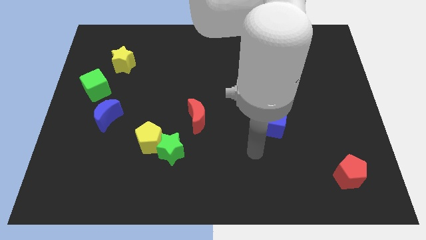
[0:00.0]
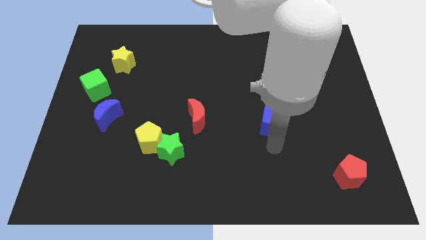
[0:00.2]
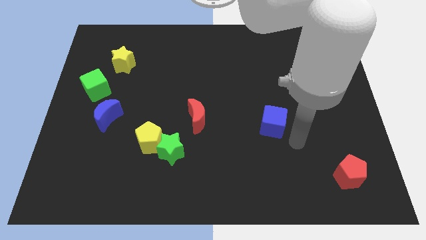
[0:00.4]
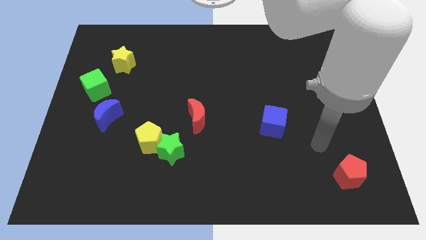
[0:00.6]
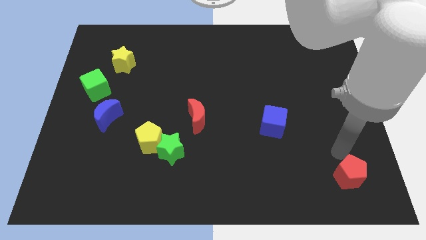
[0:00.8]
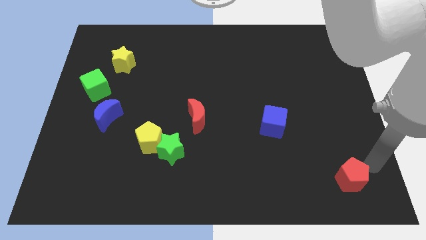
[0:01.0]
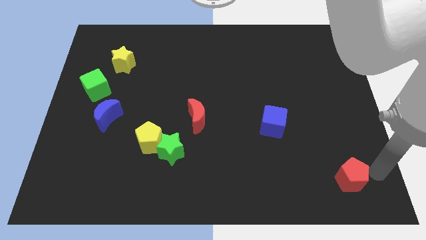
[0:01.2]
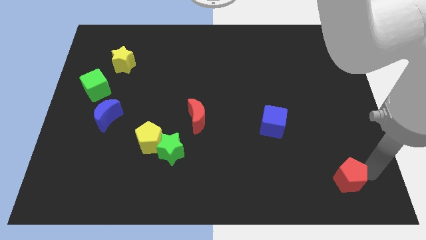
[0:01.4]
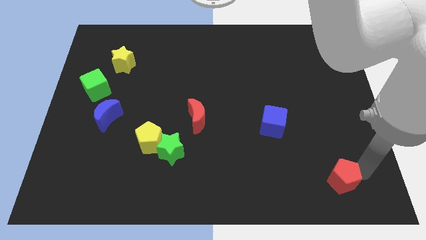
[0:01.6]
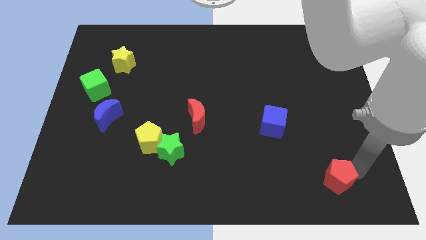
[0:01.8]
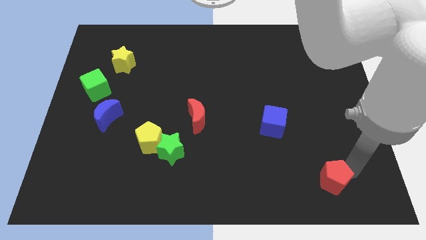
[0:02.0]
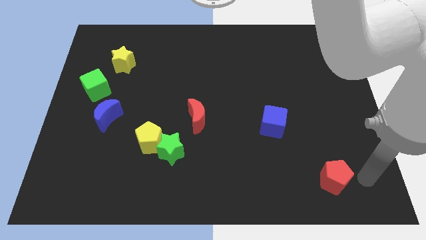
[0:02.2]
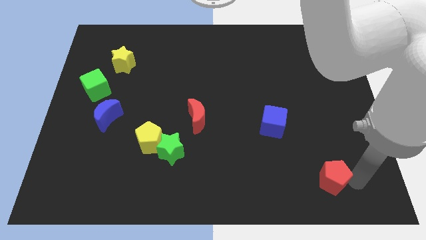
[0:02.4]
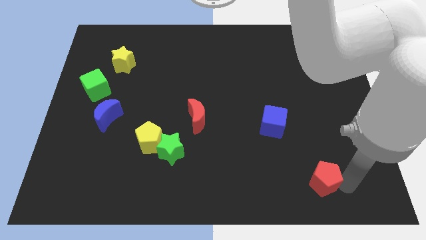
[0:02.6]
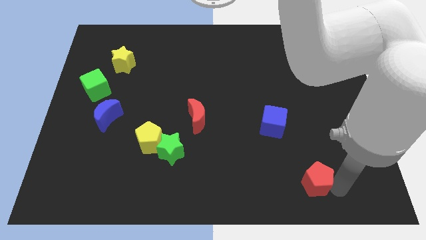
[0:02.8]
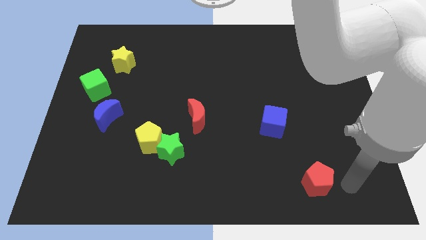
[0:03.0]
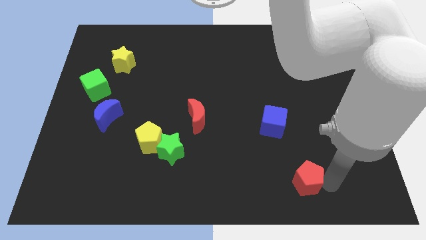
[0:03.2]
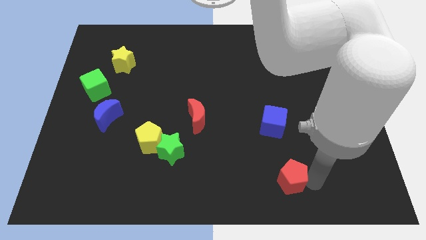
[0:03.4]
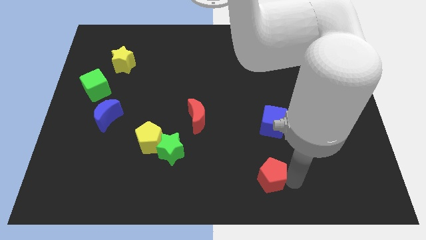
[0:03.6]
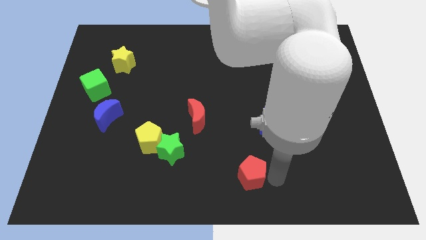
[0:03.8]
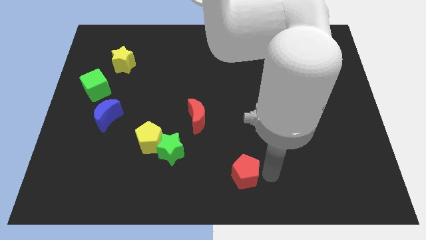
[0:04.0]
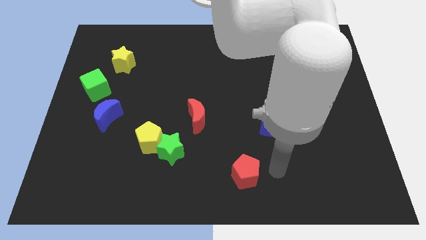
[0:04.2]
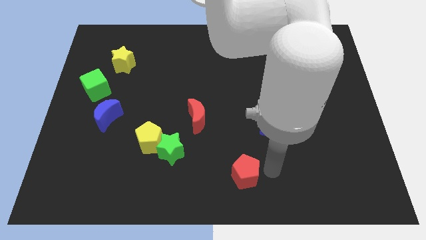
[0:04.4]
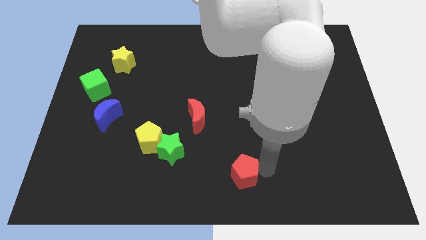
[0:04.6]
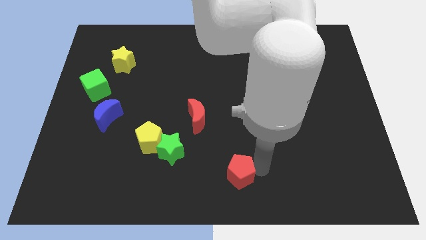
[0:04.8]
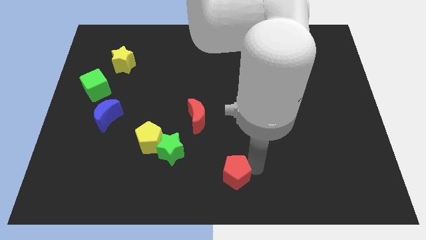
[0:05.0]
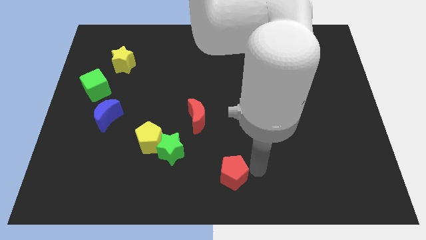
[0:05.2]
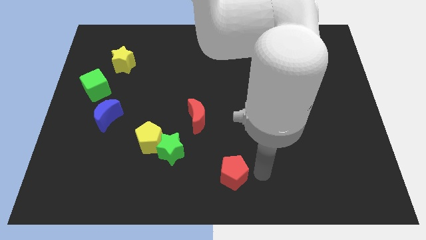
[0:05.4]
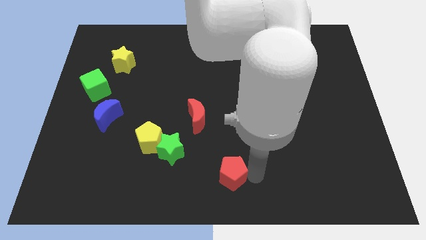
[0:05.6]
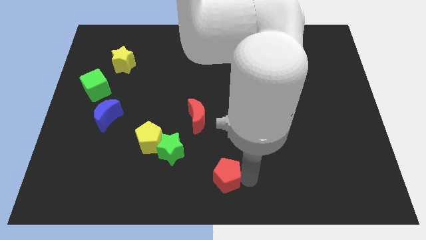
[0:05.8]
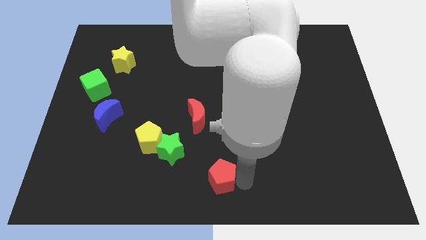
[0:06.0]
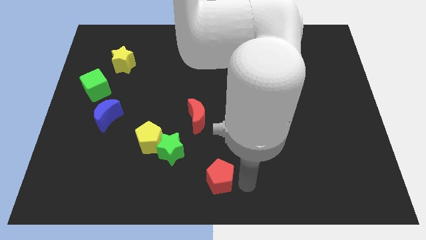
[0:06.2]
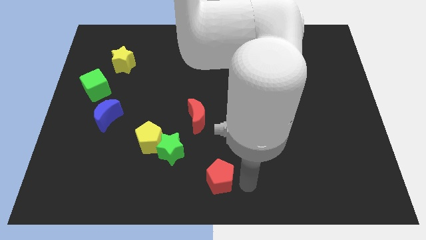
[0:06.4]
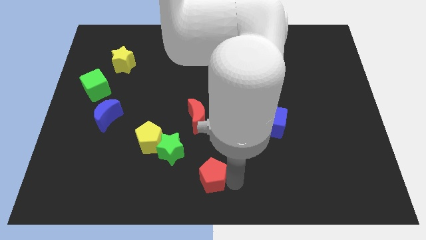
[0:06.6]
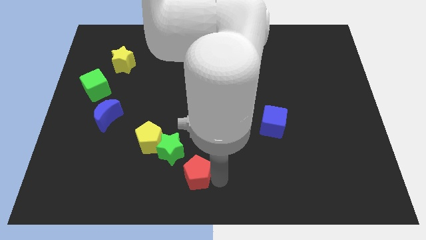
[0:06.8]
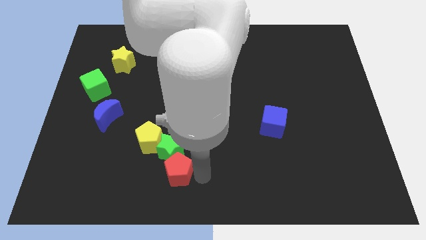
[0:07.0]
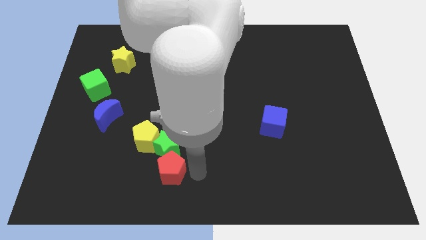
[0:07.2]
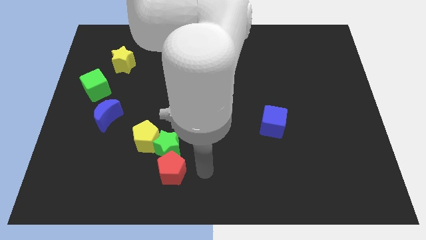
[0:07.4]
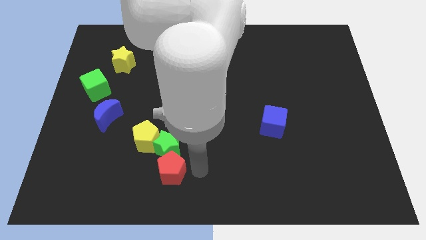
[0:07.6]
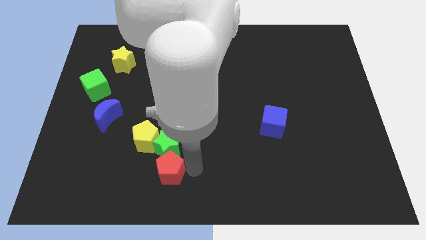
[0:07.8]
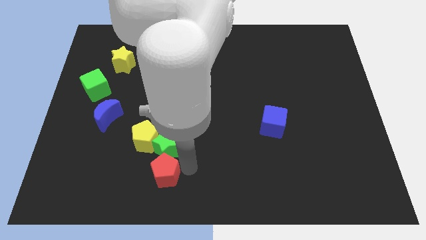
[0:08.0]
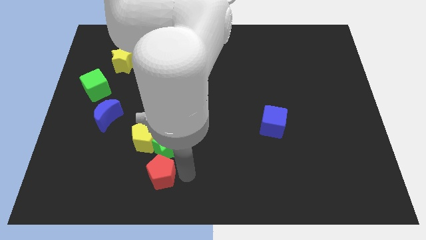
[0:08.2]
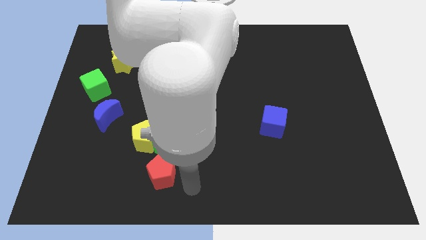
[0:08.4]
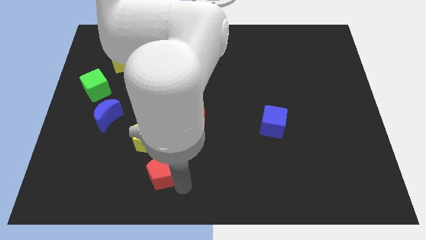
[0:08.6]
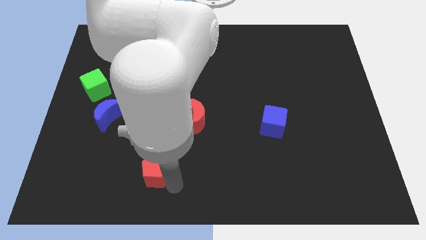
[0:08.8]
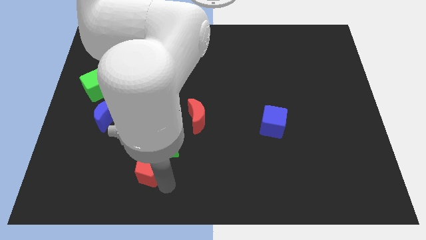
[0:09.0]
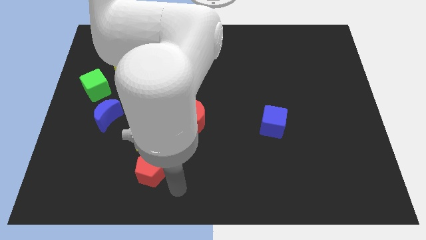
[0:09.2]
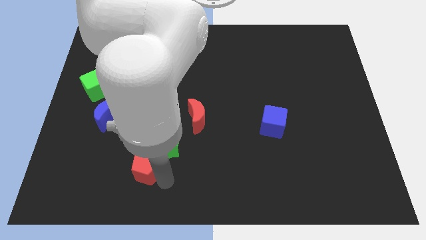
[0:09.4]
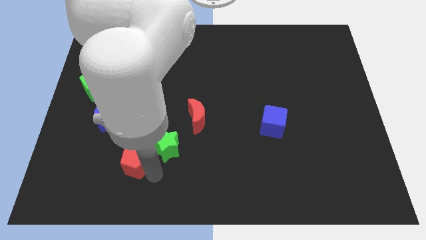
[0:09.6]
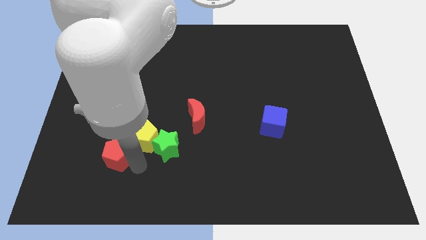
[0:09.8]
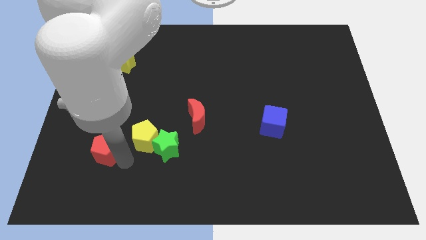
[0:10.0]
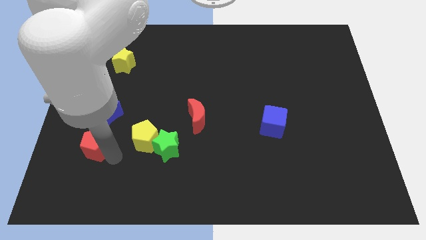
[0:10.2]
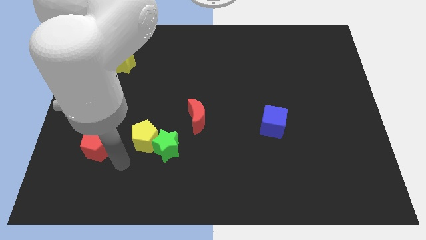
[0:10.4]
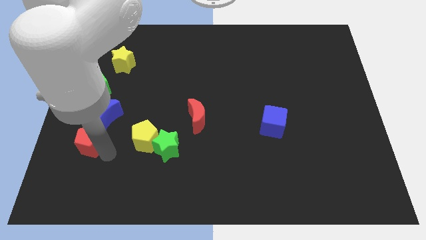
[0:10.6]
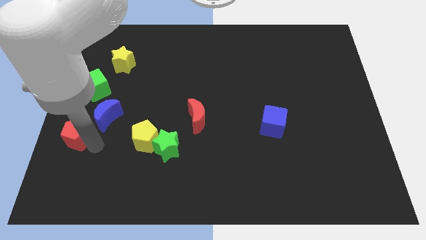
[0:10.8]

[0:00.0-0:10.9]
move the red pentagon to the center left

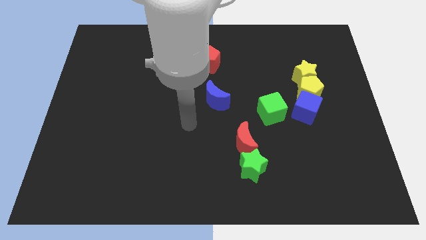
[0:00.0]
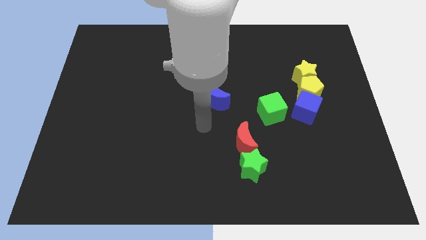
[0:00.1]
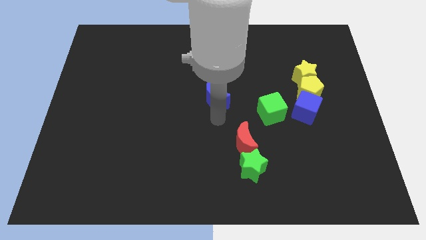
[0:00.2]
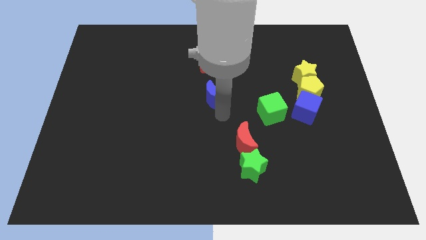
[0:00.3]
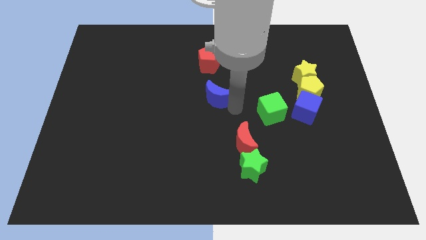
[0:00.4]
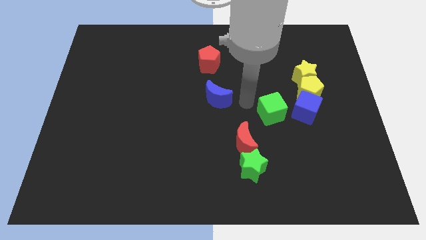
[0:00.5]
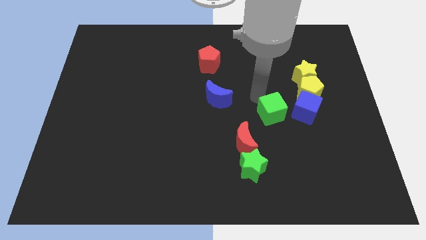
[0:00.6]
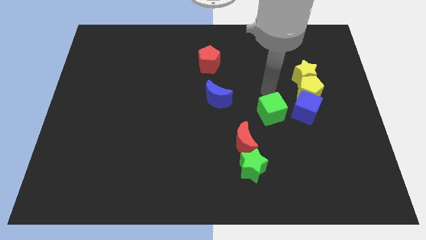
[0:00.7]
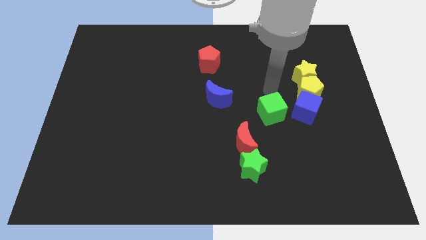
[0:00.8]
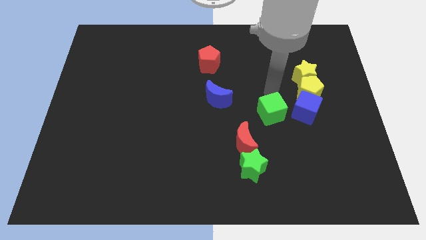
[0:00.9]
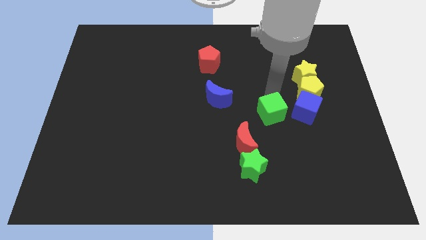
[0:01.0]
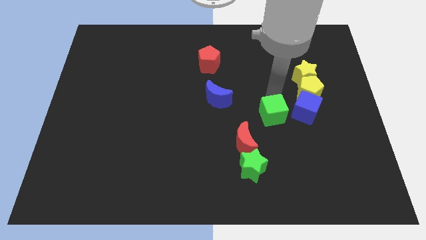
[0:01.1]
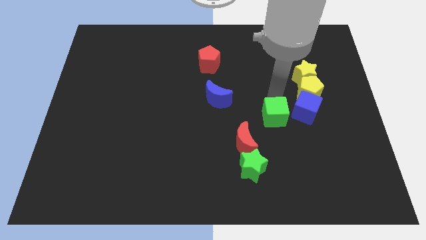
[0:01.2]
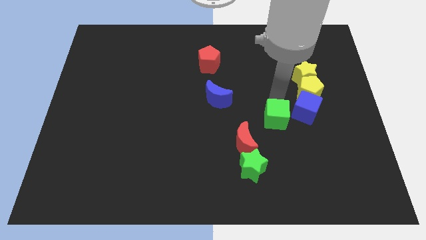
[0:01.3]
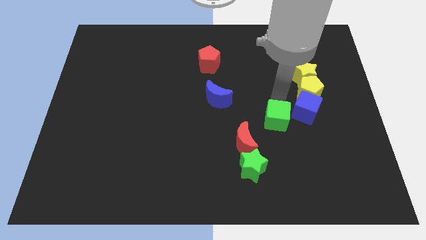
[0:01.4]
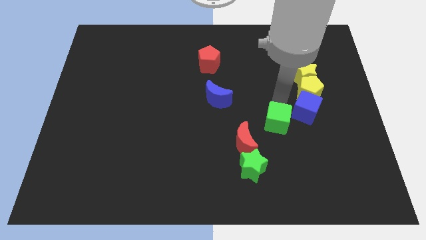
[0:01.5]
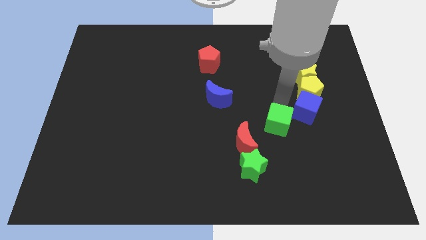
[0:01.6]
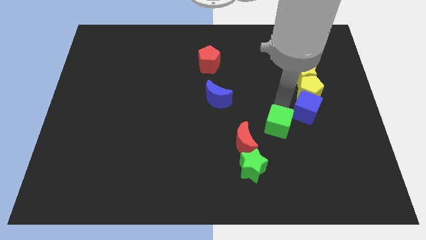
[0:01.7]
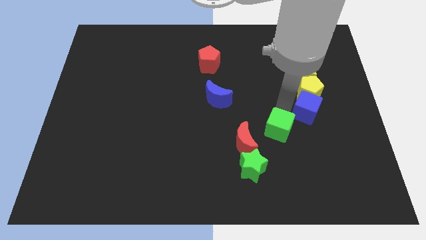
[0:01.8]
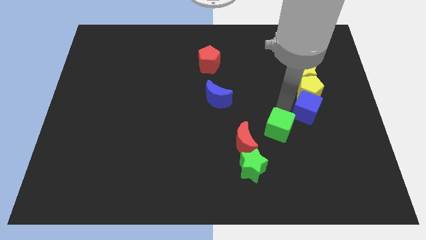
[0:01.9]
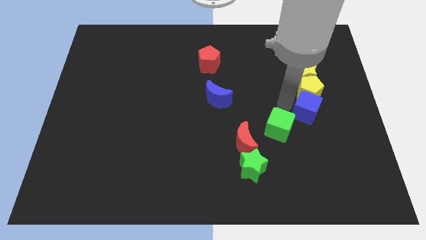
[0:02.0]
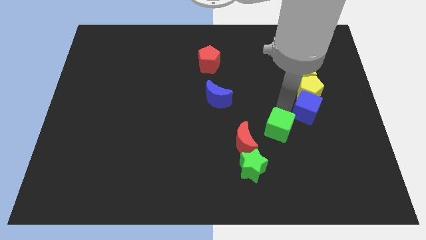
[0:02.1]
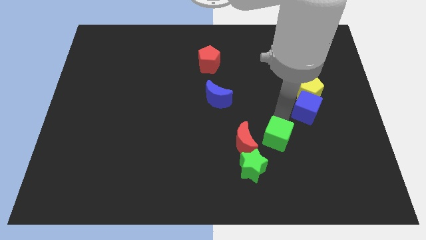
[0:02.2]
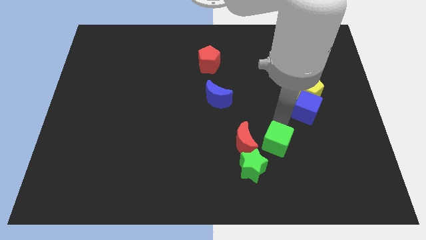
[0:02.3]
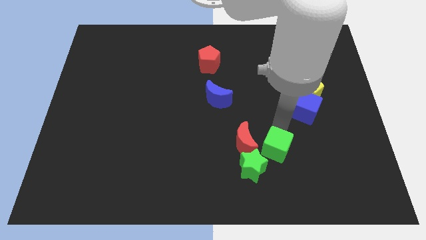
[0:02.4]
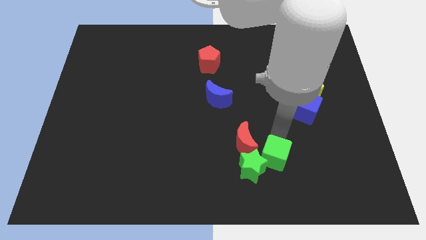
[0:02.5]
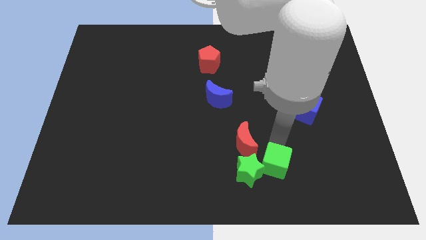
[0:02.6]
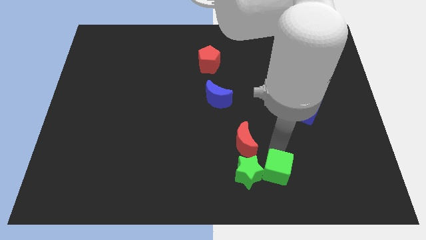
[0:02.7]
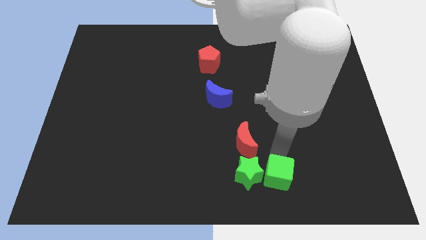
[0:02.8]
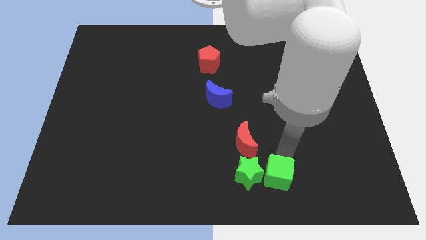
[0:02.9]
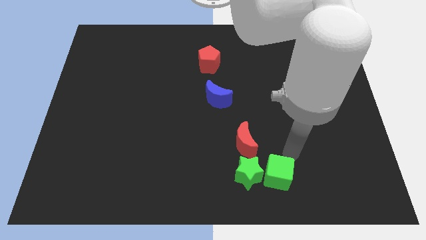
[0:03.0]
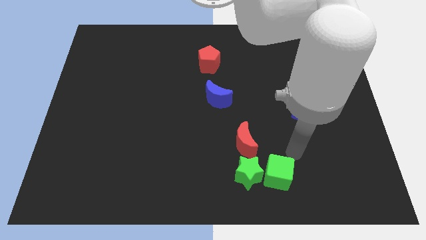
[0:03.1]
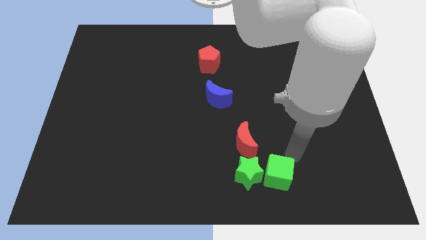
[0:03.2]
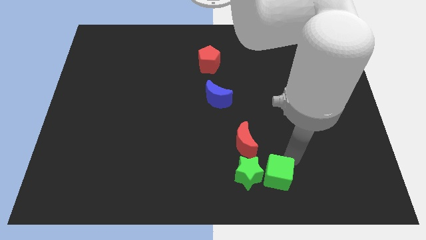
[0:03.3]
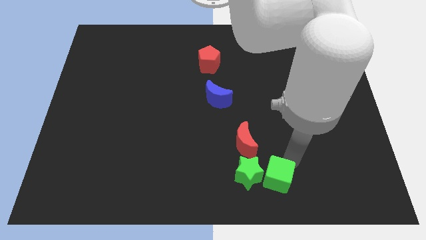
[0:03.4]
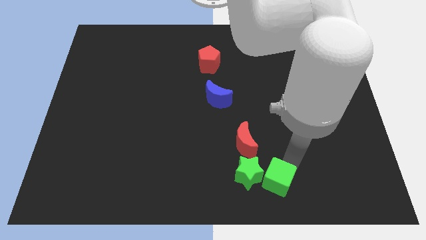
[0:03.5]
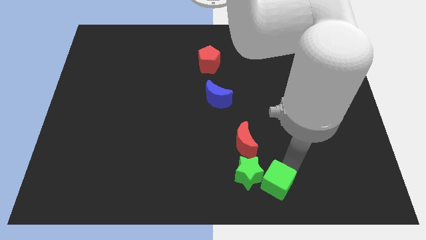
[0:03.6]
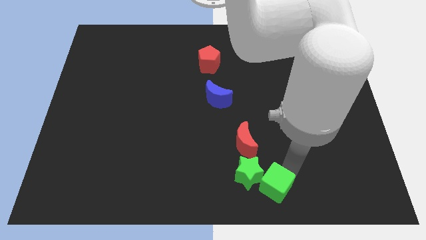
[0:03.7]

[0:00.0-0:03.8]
put the green cube to the bottom
